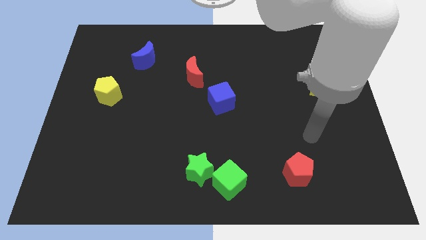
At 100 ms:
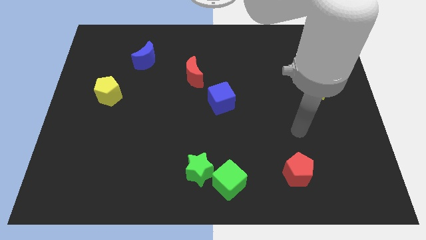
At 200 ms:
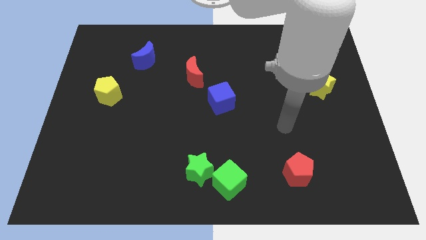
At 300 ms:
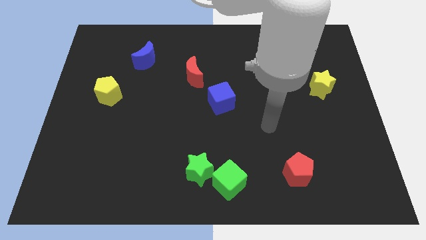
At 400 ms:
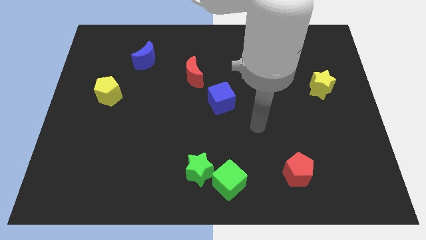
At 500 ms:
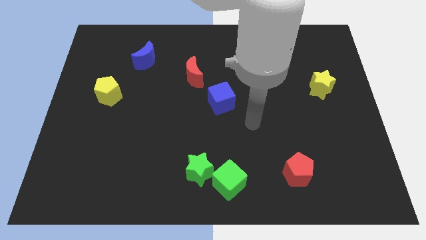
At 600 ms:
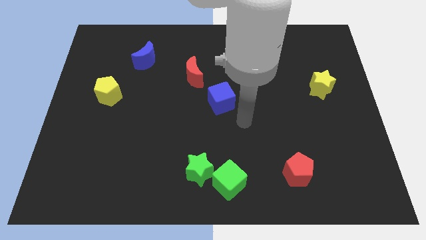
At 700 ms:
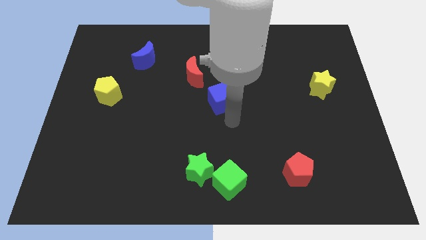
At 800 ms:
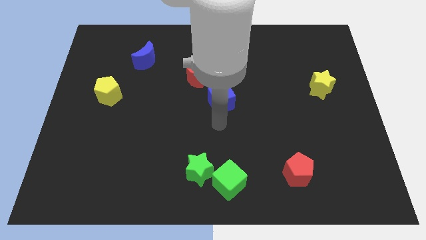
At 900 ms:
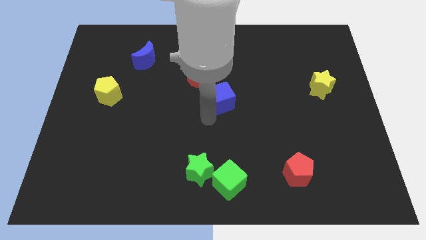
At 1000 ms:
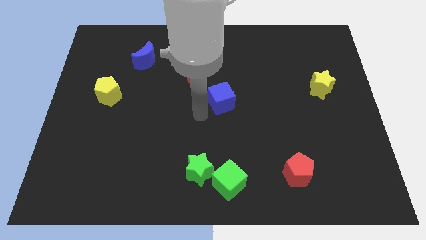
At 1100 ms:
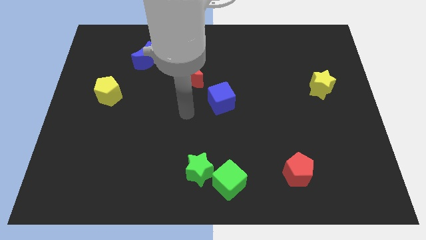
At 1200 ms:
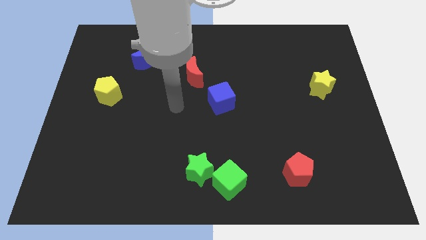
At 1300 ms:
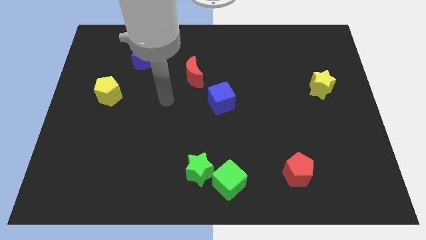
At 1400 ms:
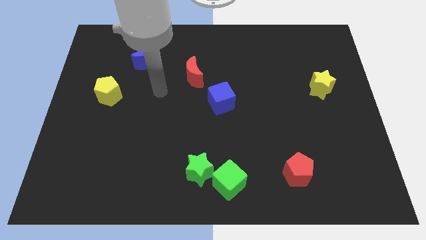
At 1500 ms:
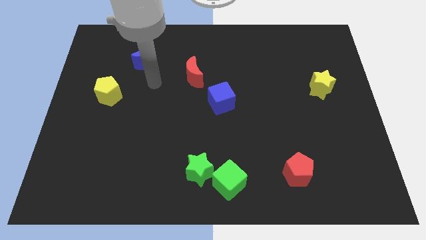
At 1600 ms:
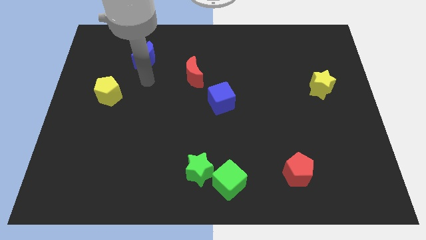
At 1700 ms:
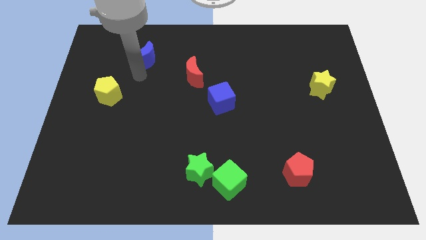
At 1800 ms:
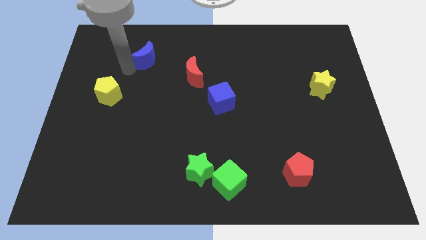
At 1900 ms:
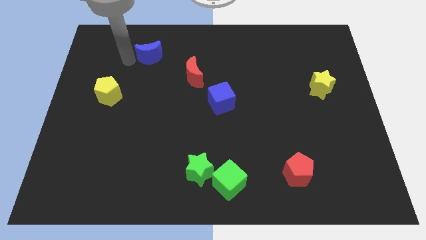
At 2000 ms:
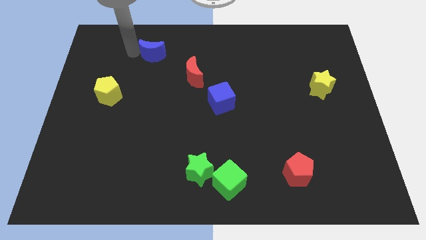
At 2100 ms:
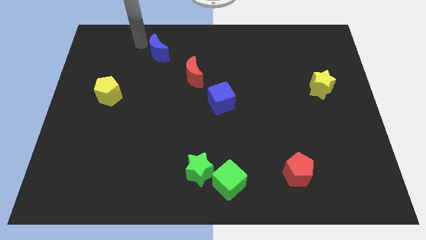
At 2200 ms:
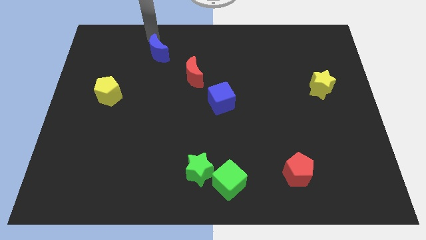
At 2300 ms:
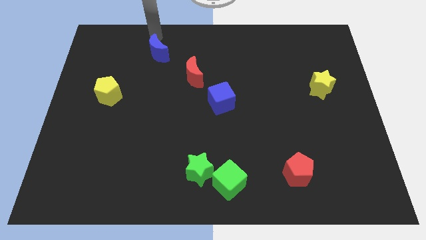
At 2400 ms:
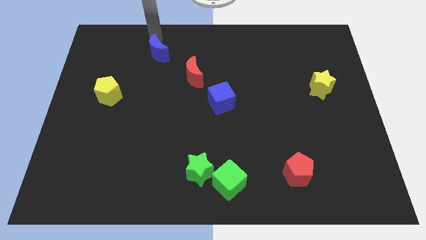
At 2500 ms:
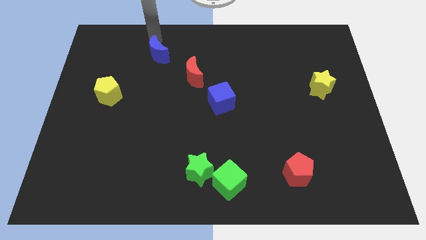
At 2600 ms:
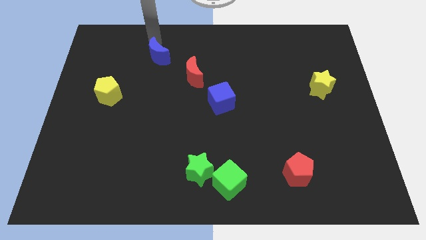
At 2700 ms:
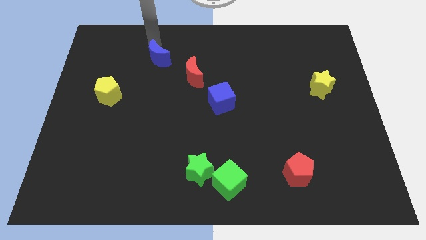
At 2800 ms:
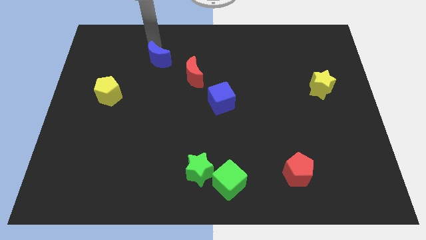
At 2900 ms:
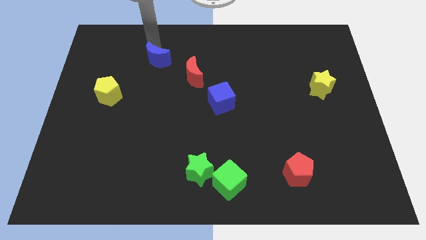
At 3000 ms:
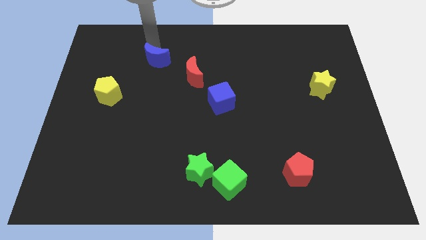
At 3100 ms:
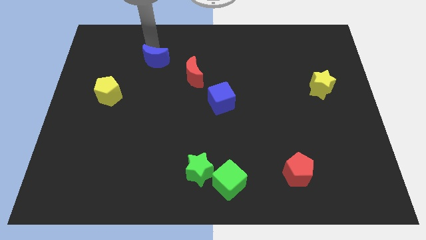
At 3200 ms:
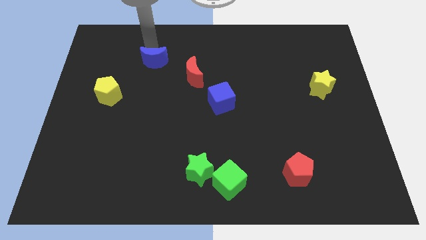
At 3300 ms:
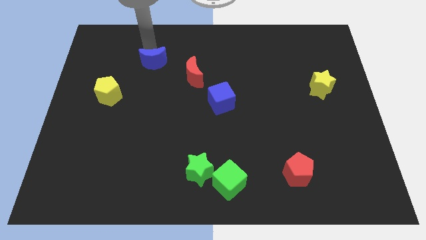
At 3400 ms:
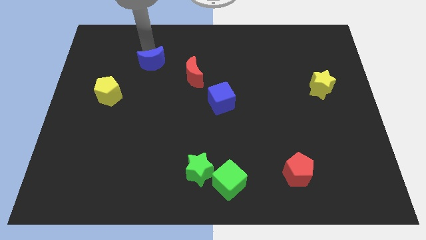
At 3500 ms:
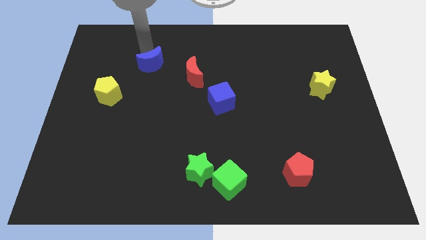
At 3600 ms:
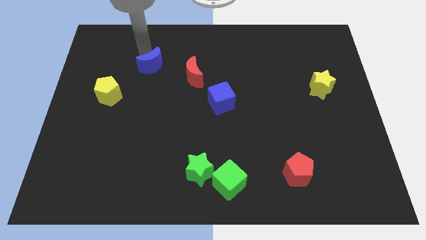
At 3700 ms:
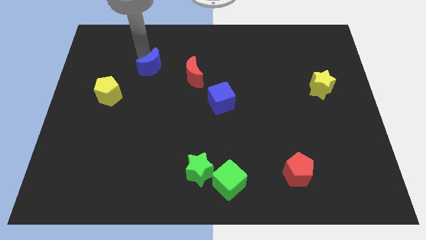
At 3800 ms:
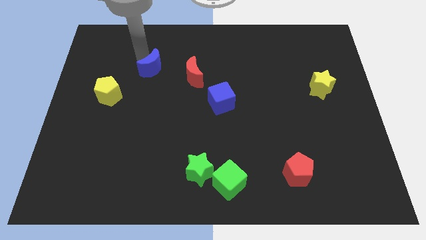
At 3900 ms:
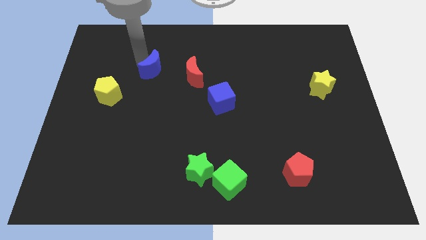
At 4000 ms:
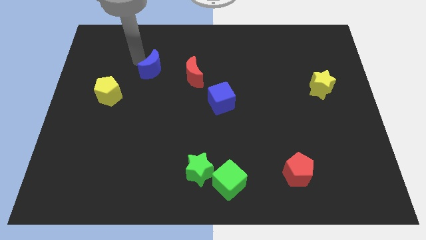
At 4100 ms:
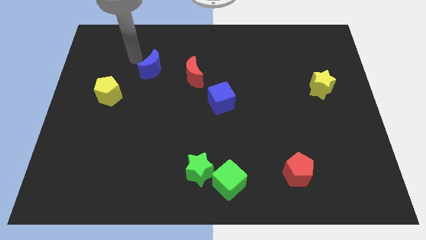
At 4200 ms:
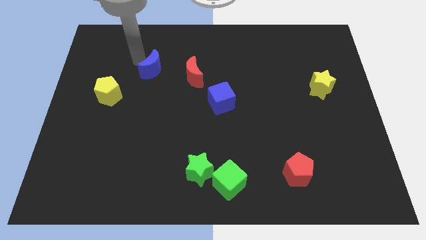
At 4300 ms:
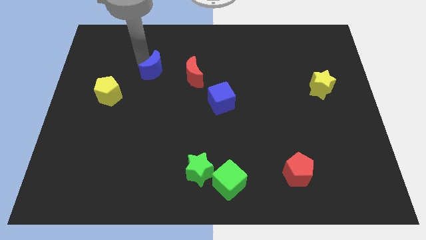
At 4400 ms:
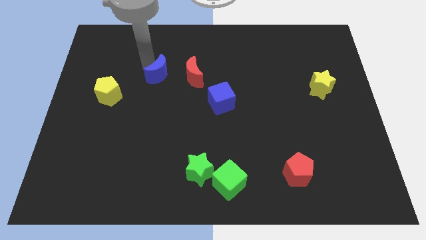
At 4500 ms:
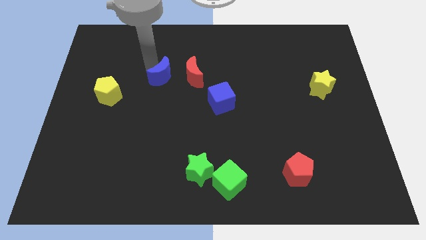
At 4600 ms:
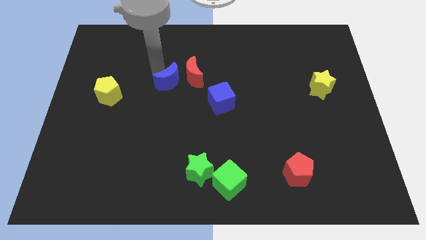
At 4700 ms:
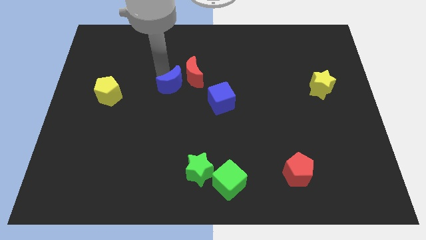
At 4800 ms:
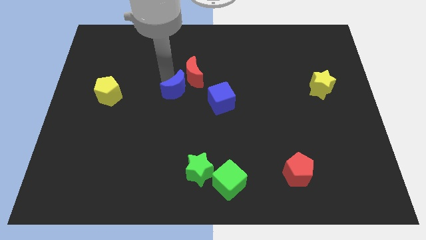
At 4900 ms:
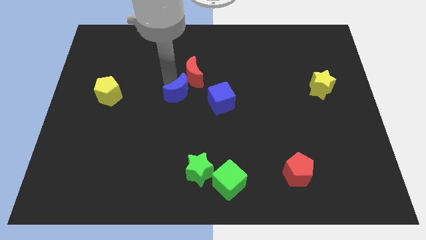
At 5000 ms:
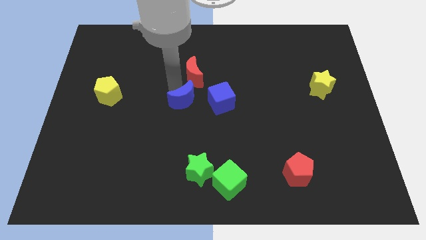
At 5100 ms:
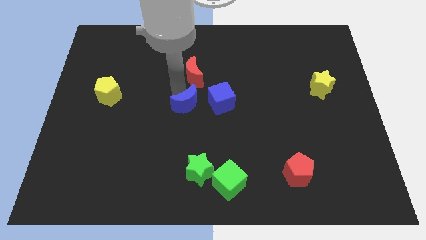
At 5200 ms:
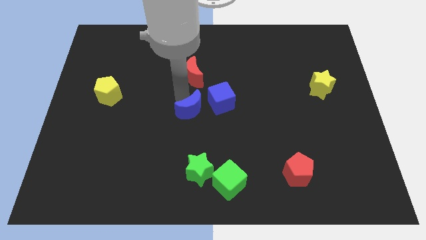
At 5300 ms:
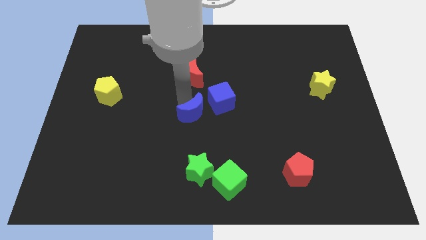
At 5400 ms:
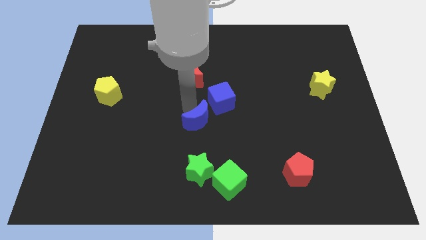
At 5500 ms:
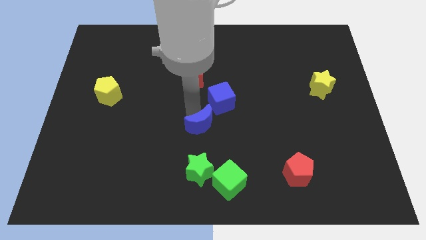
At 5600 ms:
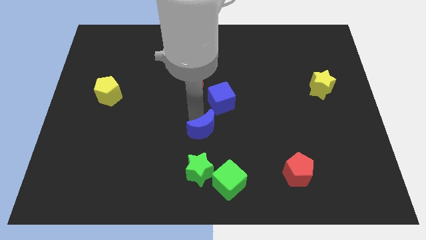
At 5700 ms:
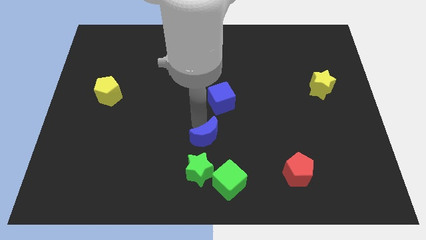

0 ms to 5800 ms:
move the blue moon diagonally up and to the right of the green star

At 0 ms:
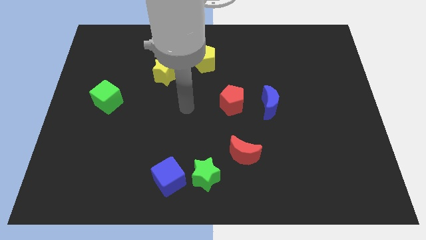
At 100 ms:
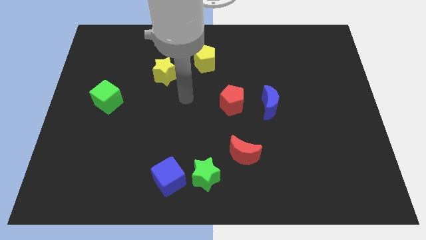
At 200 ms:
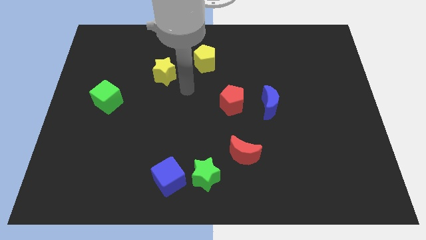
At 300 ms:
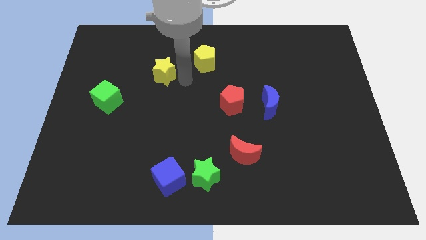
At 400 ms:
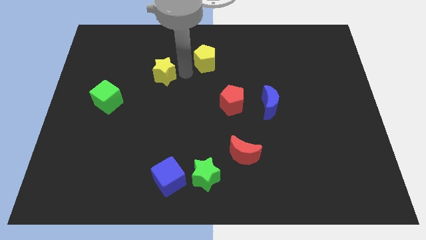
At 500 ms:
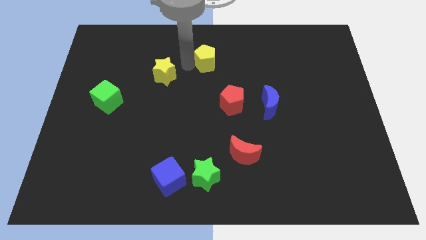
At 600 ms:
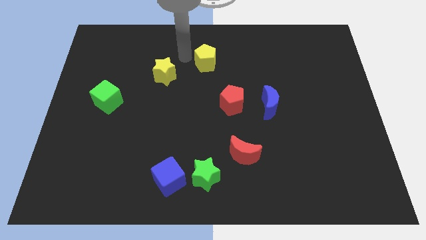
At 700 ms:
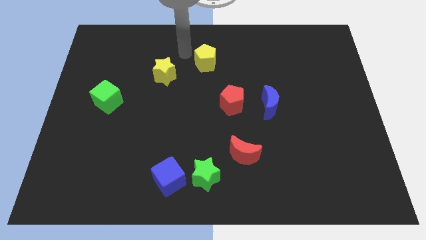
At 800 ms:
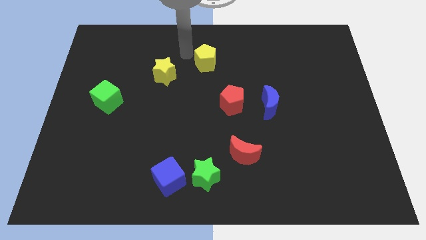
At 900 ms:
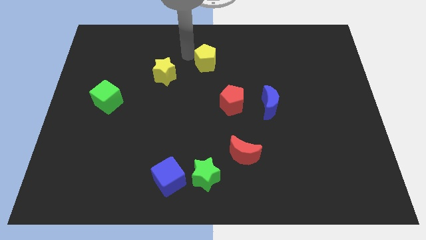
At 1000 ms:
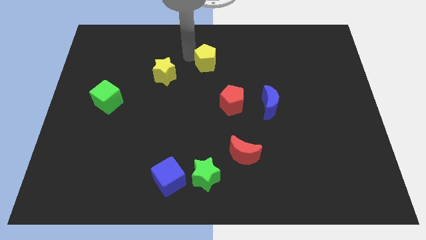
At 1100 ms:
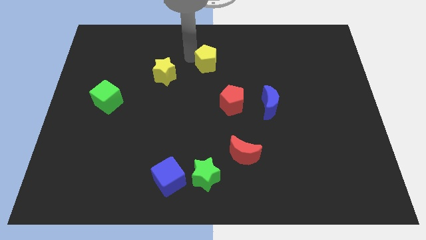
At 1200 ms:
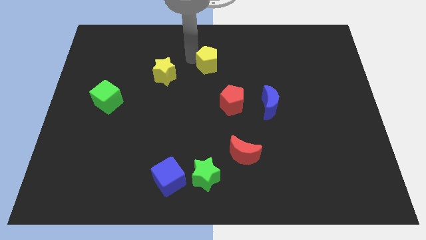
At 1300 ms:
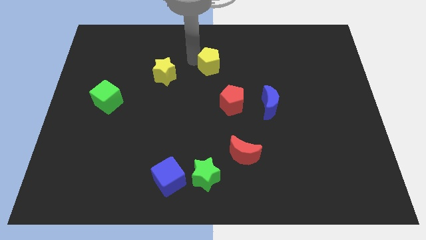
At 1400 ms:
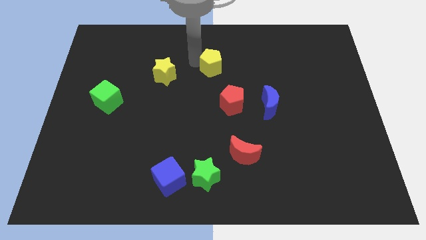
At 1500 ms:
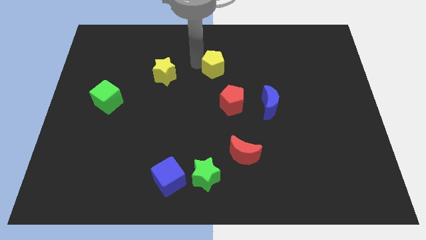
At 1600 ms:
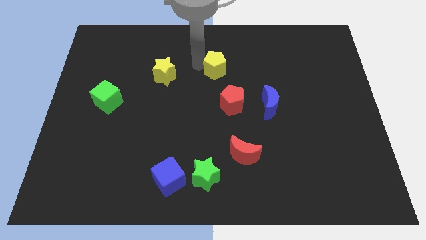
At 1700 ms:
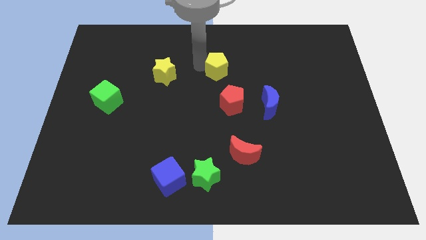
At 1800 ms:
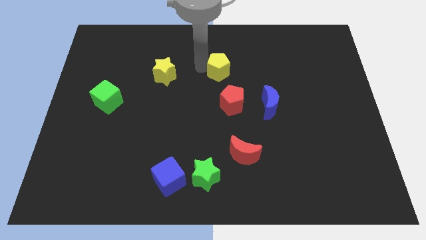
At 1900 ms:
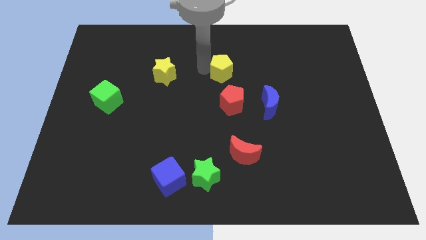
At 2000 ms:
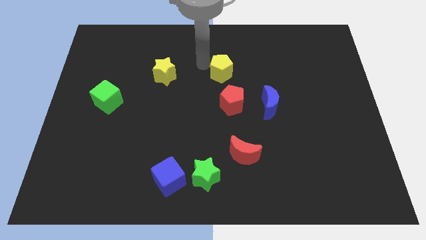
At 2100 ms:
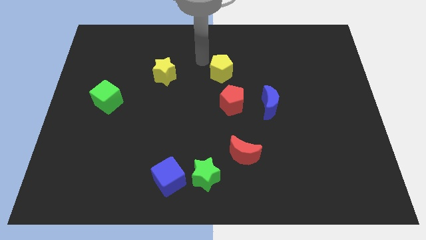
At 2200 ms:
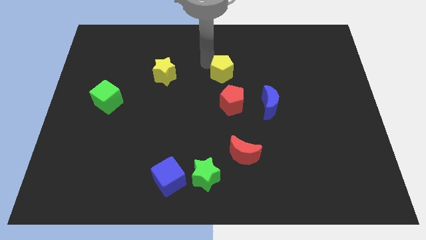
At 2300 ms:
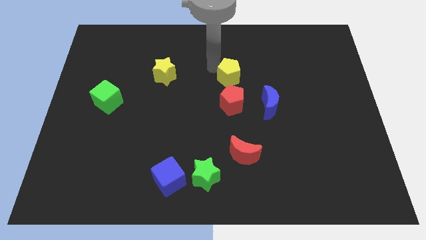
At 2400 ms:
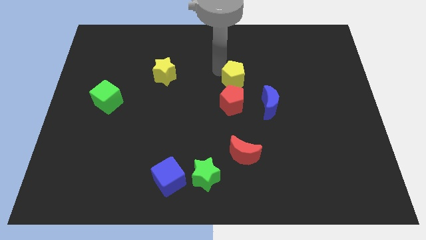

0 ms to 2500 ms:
slide the yellow pentagon diagonally up and to the left of the blue moon
